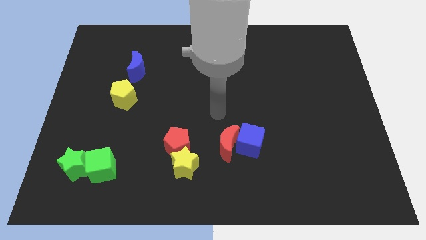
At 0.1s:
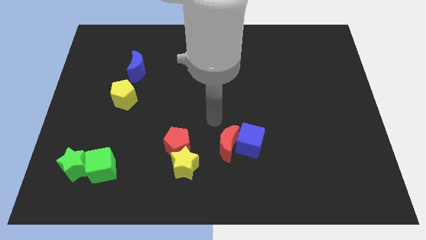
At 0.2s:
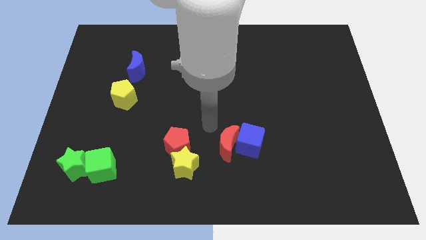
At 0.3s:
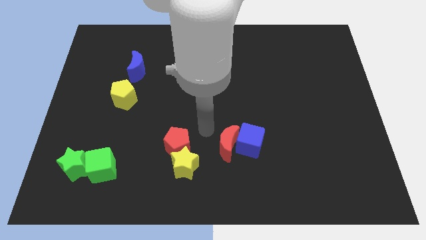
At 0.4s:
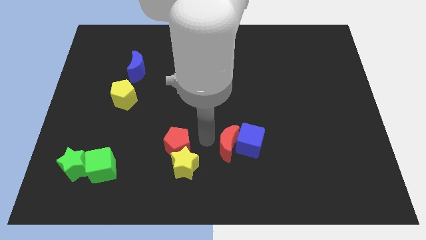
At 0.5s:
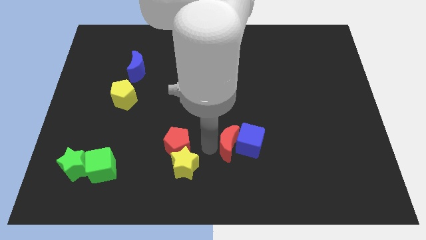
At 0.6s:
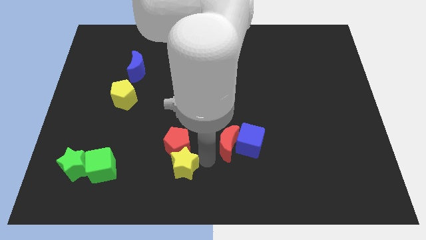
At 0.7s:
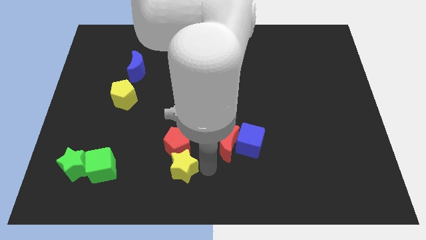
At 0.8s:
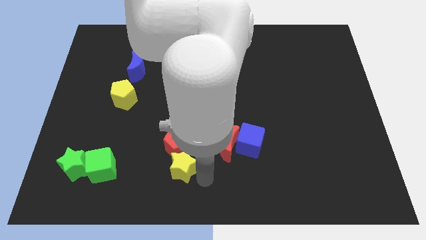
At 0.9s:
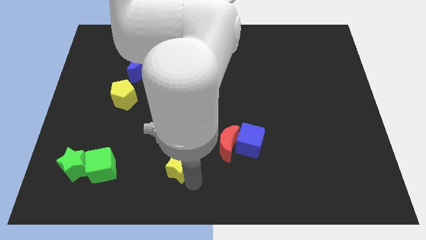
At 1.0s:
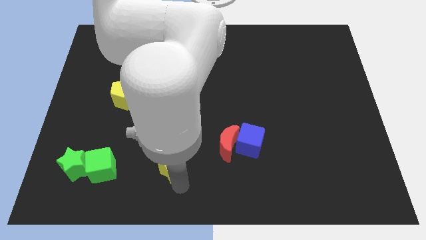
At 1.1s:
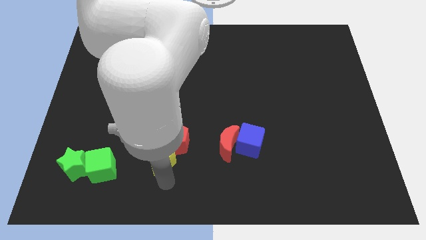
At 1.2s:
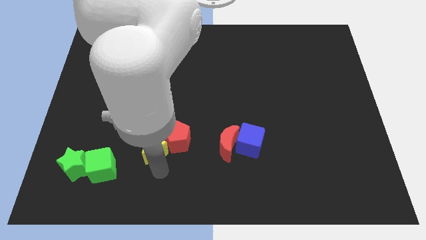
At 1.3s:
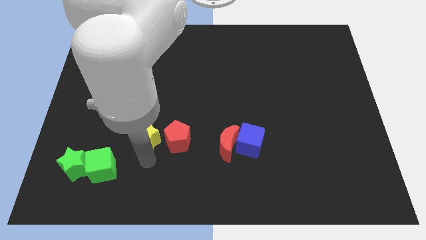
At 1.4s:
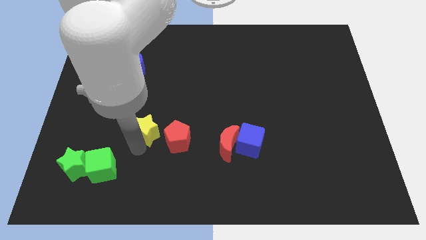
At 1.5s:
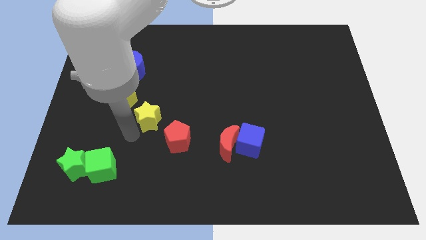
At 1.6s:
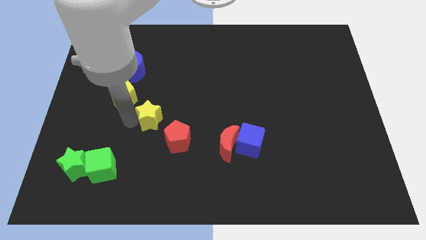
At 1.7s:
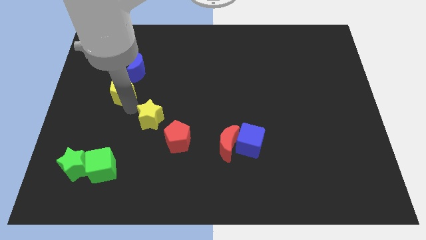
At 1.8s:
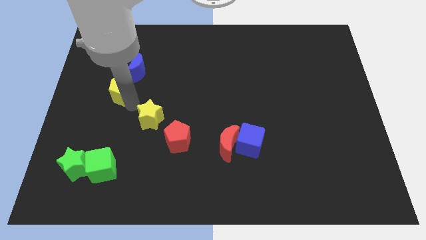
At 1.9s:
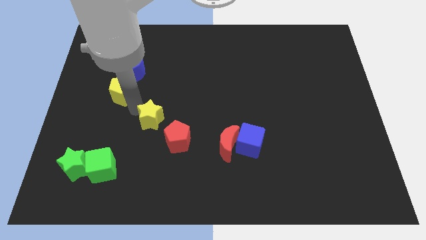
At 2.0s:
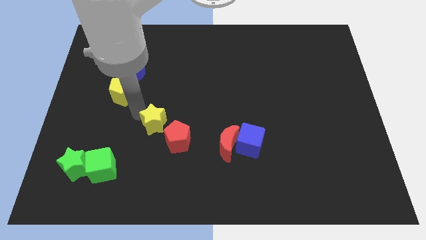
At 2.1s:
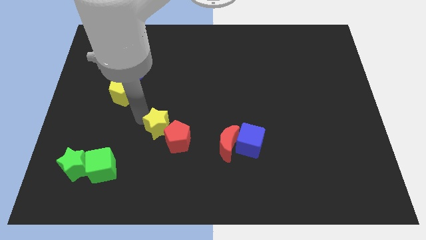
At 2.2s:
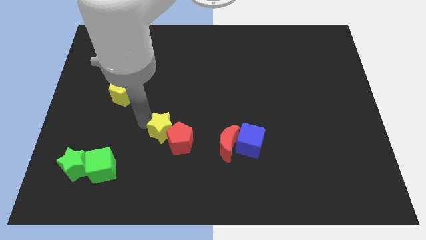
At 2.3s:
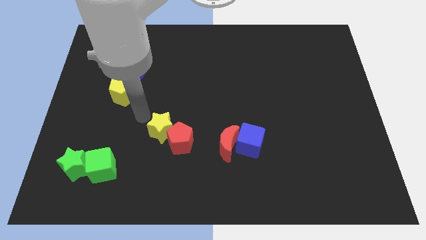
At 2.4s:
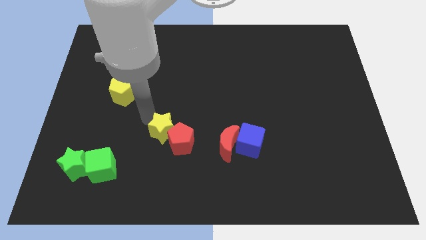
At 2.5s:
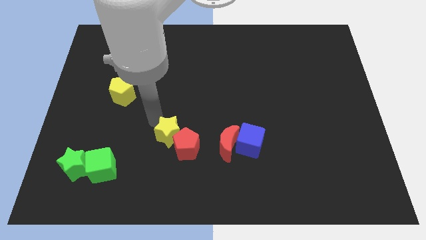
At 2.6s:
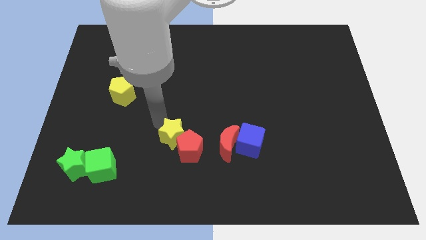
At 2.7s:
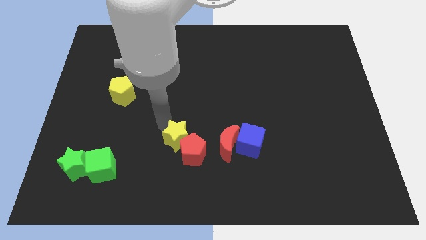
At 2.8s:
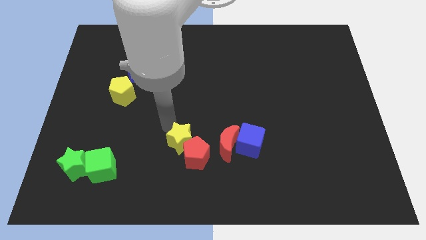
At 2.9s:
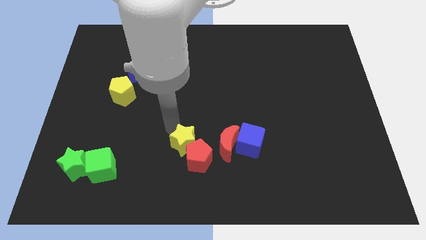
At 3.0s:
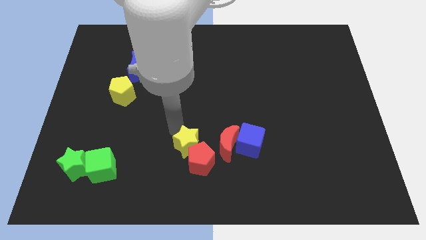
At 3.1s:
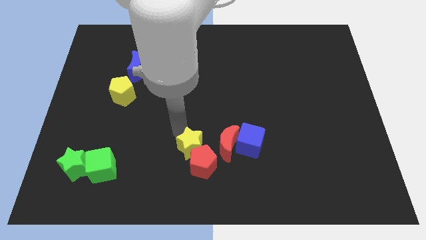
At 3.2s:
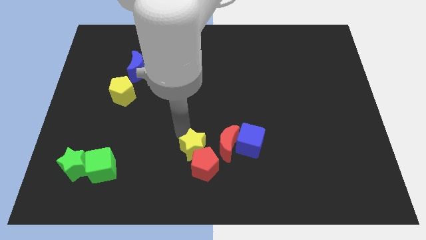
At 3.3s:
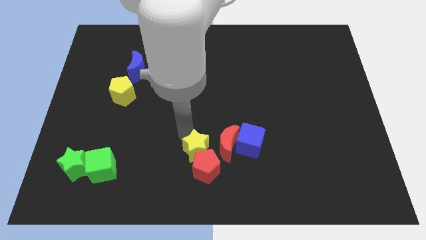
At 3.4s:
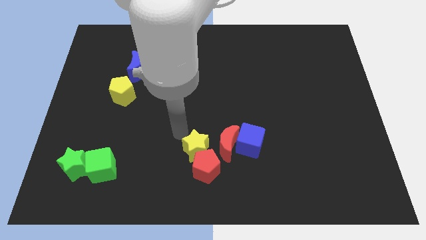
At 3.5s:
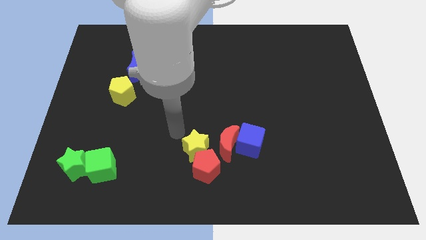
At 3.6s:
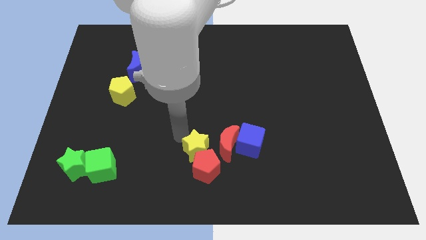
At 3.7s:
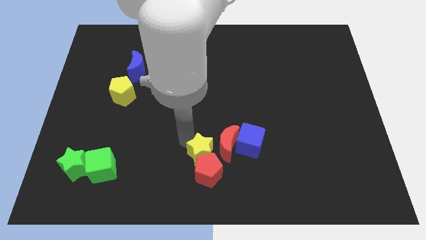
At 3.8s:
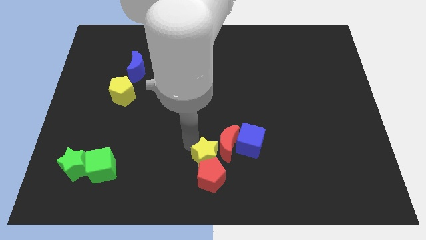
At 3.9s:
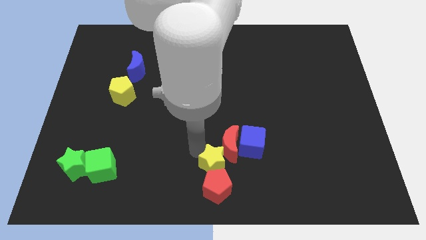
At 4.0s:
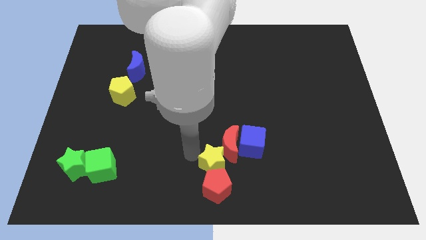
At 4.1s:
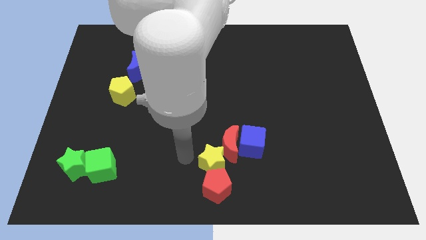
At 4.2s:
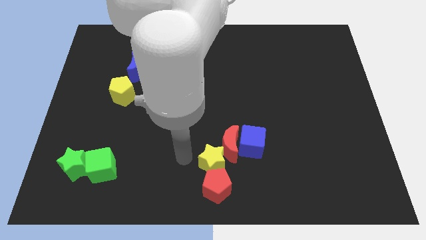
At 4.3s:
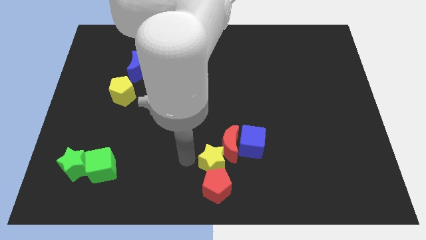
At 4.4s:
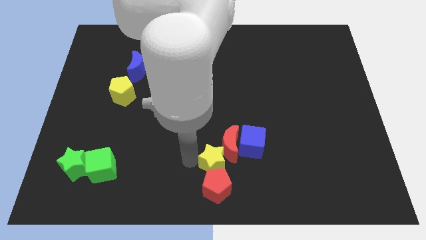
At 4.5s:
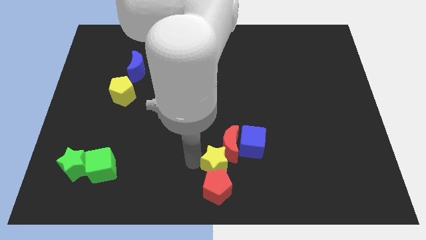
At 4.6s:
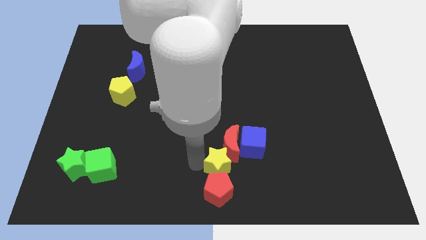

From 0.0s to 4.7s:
slightly push the yellow star right

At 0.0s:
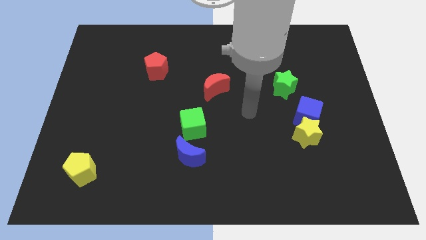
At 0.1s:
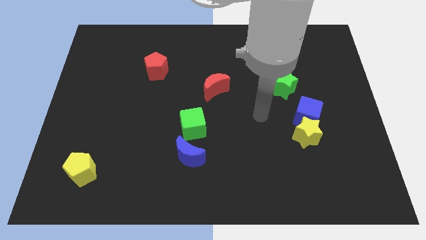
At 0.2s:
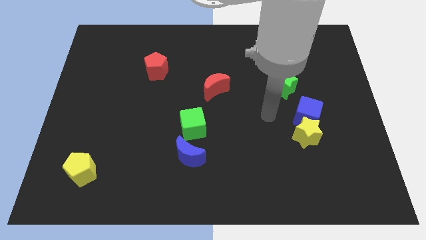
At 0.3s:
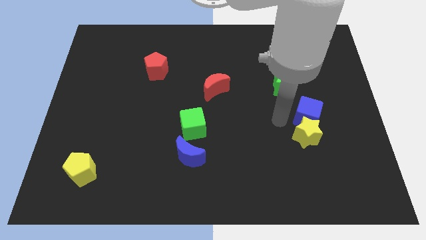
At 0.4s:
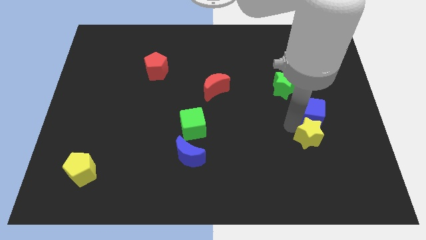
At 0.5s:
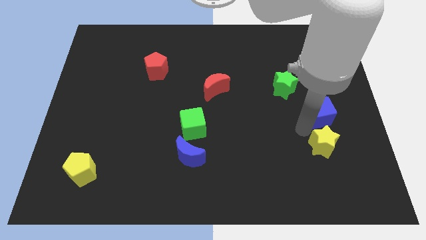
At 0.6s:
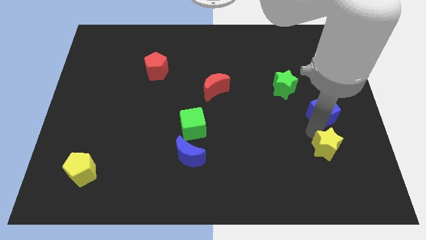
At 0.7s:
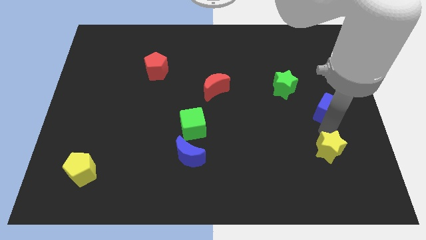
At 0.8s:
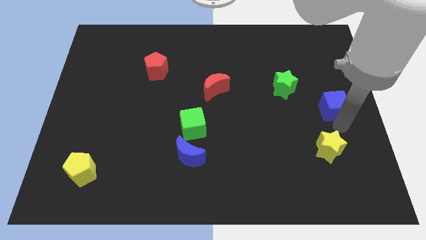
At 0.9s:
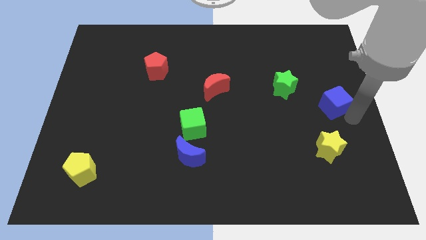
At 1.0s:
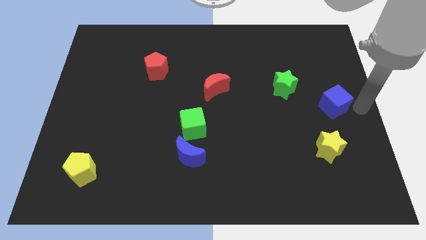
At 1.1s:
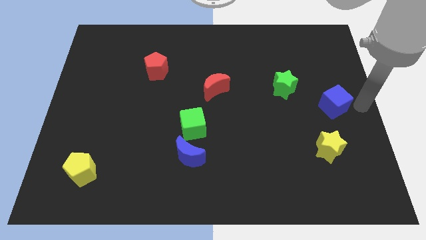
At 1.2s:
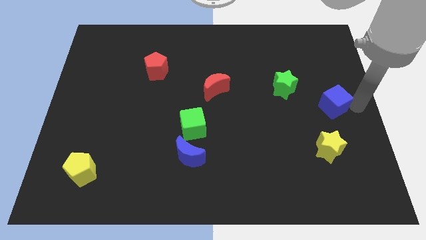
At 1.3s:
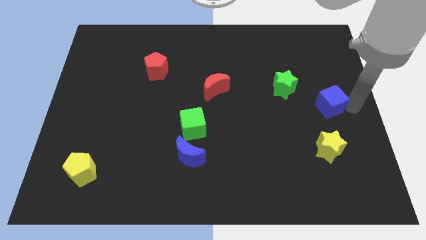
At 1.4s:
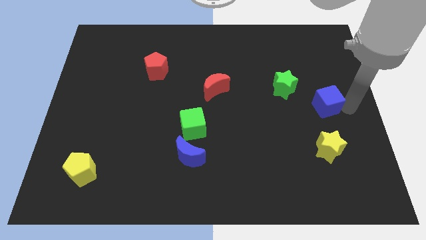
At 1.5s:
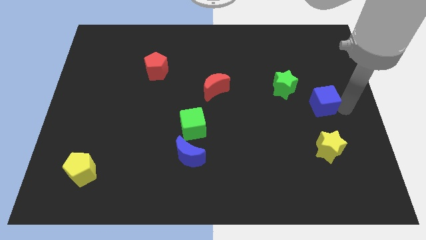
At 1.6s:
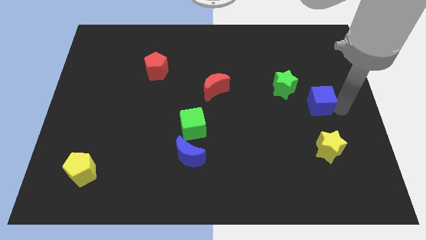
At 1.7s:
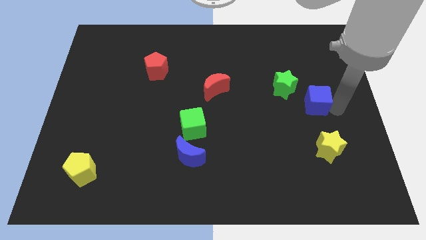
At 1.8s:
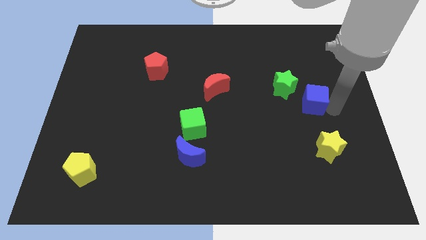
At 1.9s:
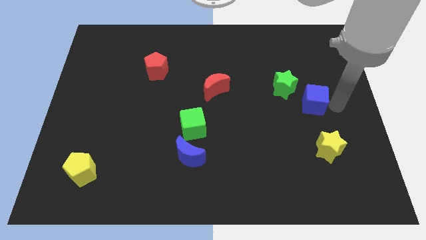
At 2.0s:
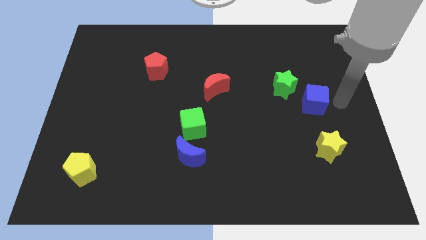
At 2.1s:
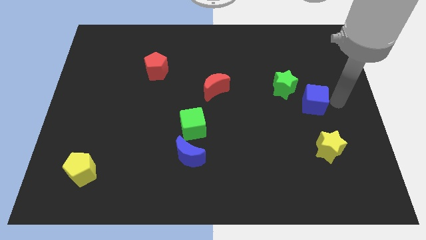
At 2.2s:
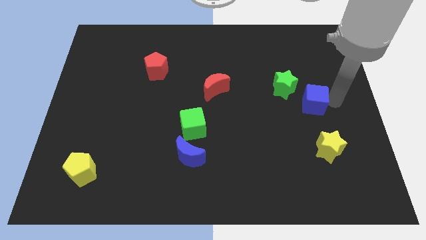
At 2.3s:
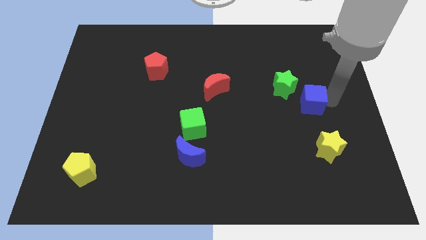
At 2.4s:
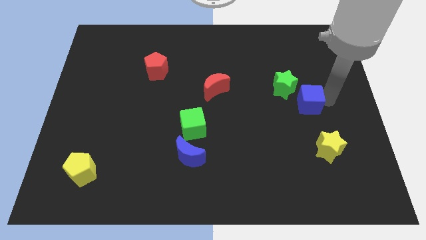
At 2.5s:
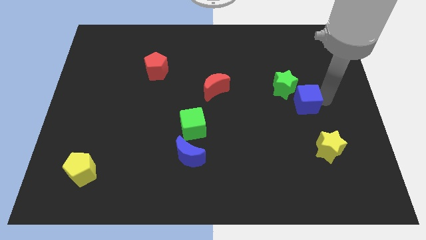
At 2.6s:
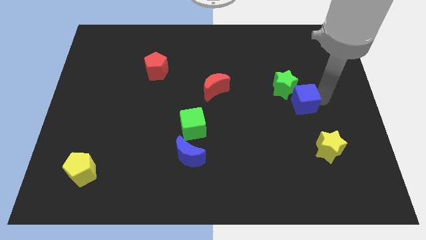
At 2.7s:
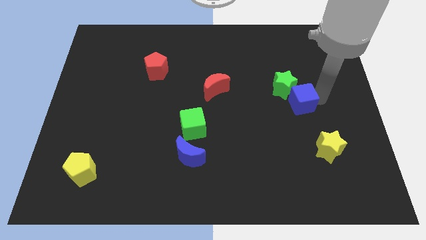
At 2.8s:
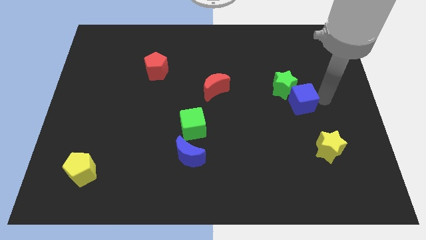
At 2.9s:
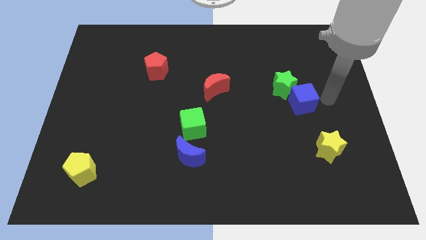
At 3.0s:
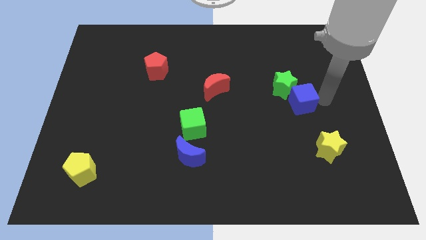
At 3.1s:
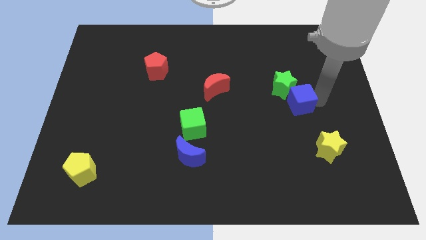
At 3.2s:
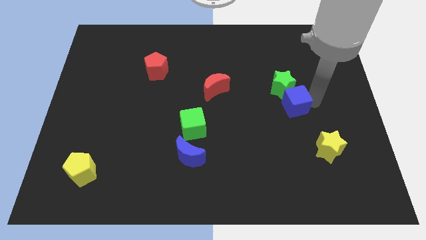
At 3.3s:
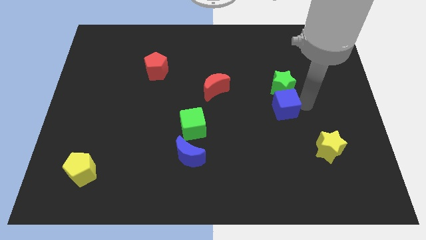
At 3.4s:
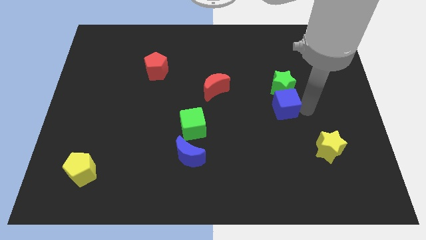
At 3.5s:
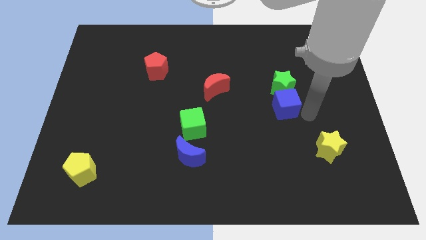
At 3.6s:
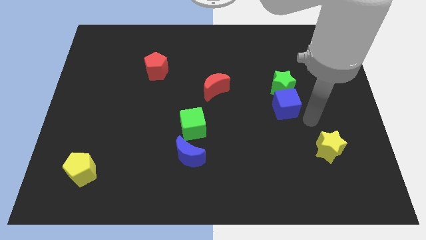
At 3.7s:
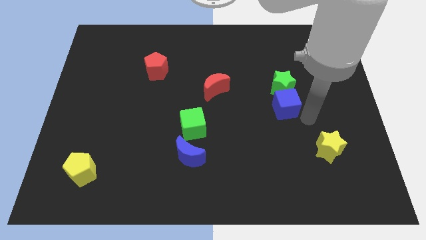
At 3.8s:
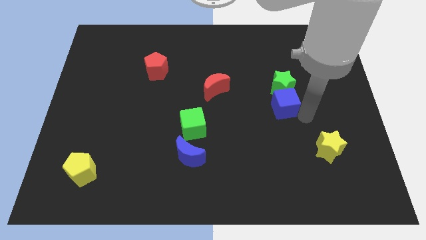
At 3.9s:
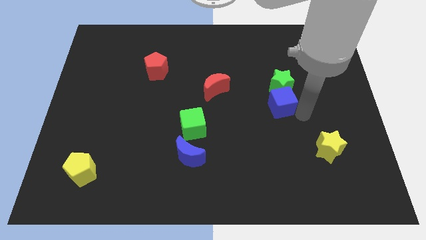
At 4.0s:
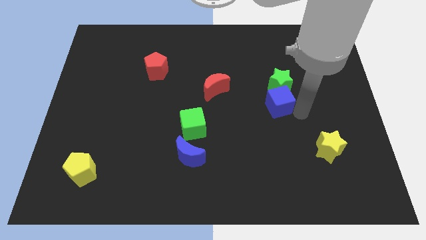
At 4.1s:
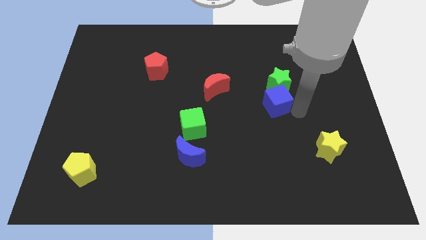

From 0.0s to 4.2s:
push the blue cube diagonally up and left a little
